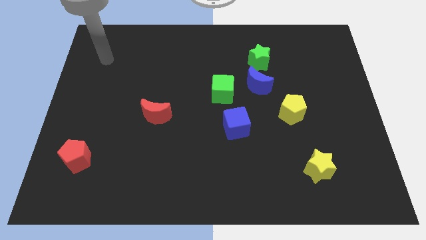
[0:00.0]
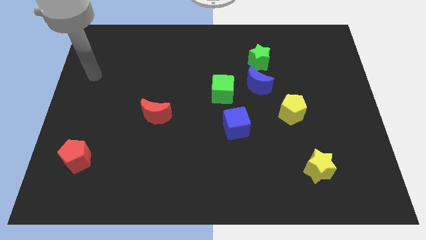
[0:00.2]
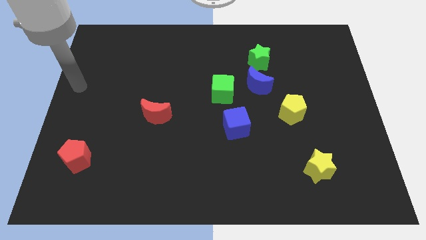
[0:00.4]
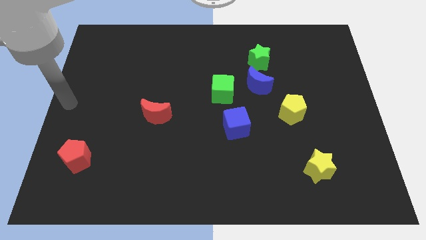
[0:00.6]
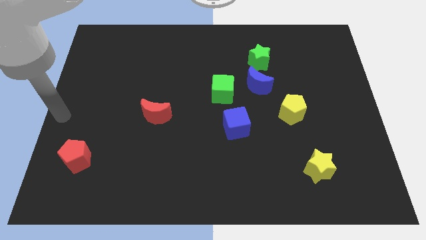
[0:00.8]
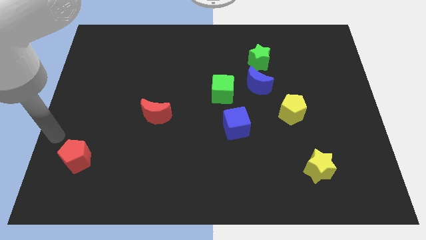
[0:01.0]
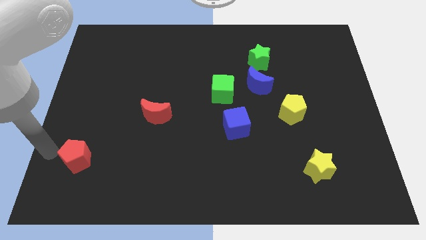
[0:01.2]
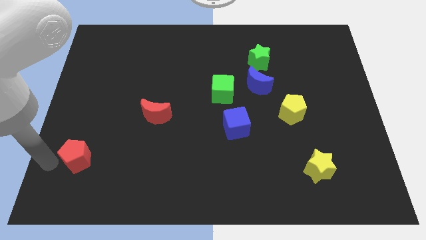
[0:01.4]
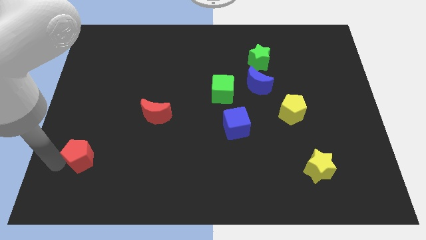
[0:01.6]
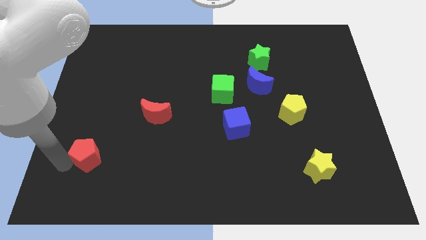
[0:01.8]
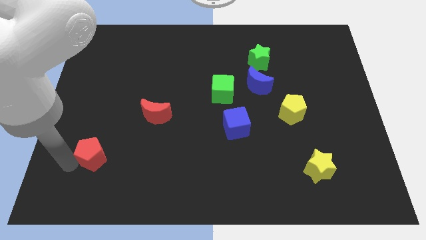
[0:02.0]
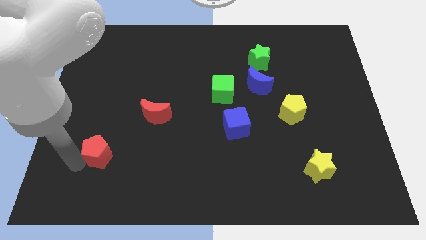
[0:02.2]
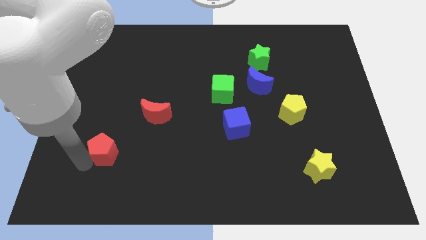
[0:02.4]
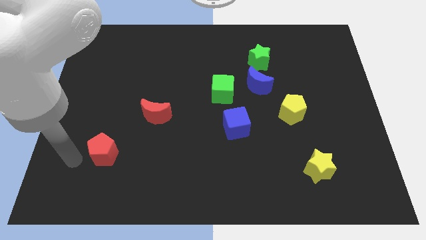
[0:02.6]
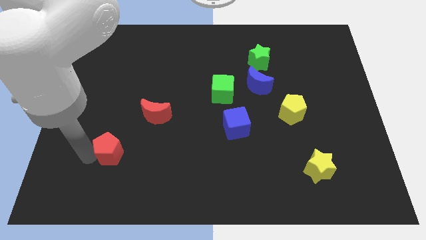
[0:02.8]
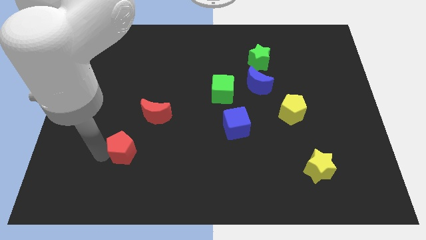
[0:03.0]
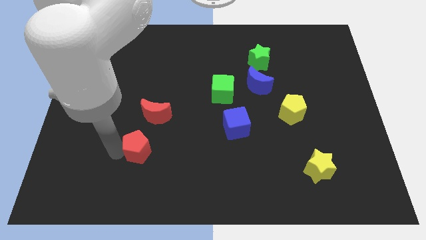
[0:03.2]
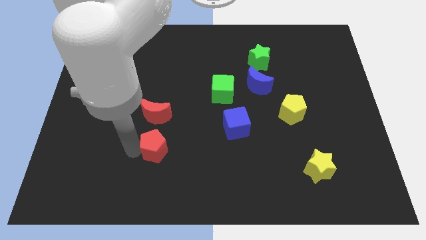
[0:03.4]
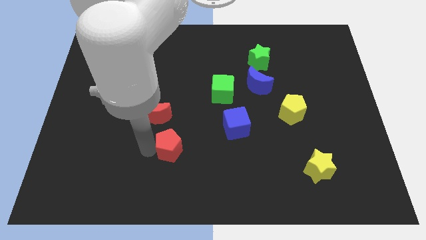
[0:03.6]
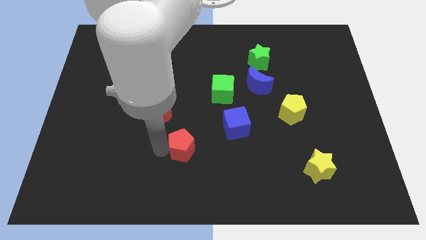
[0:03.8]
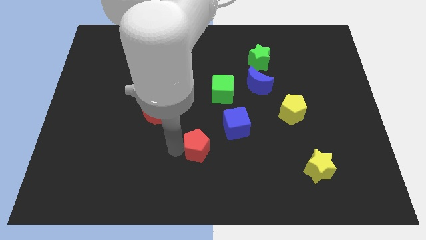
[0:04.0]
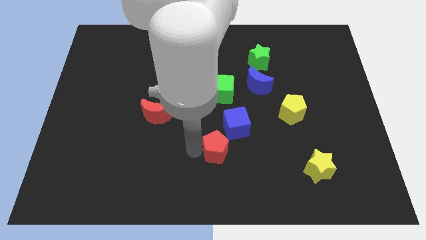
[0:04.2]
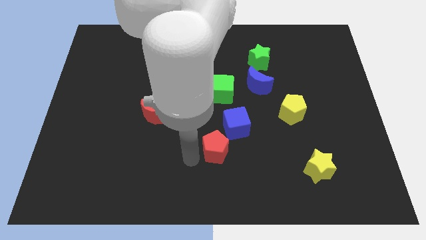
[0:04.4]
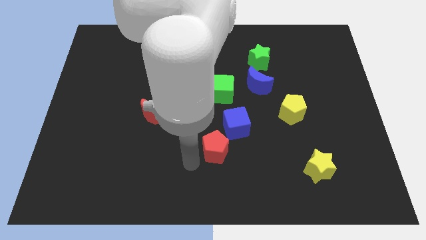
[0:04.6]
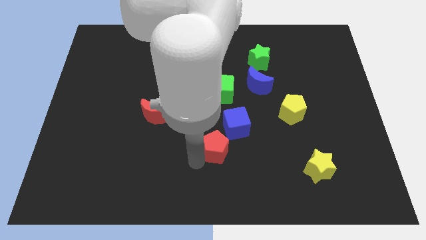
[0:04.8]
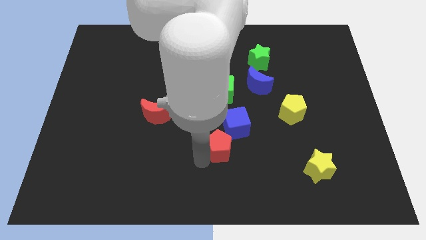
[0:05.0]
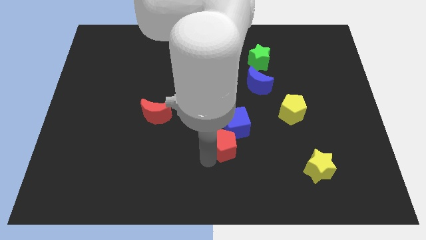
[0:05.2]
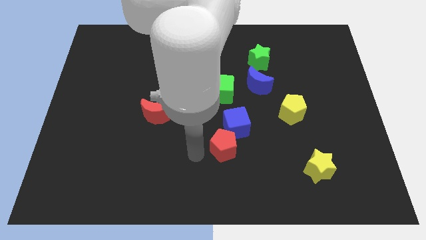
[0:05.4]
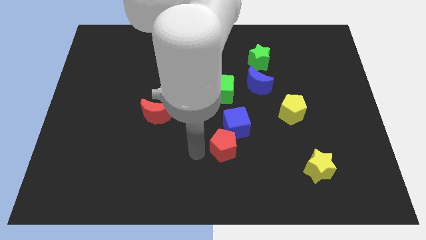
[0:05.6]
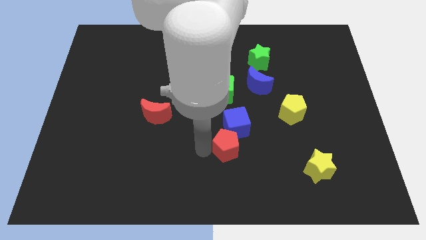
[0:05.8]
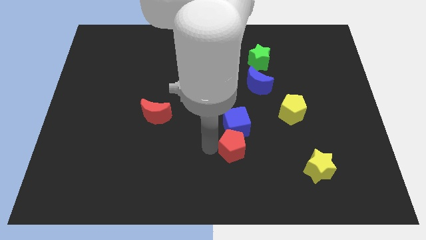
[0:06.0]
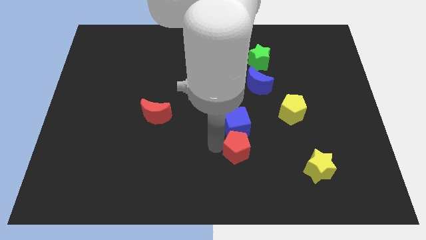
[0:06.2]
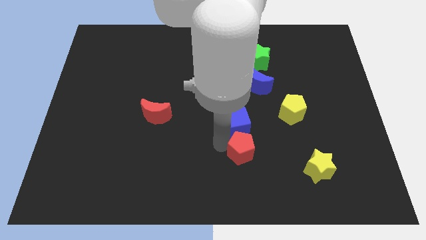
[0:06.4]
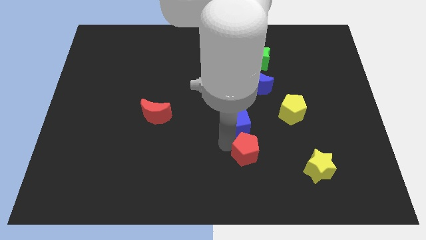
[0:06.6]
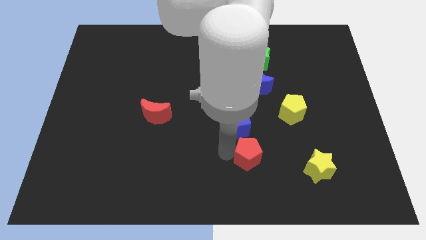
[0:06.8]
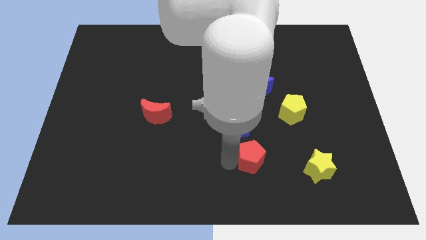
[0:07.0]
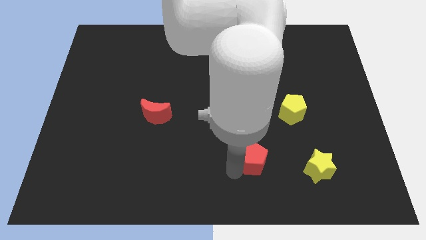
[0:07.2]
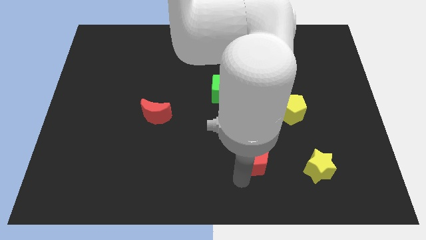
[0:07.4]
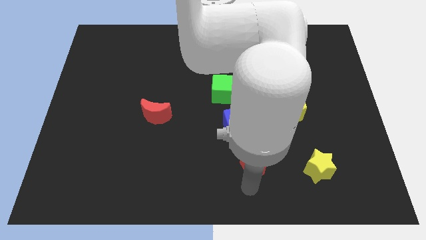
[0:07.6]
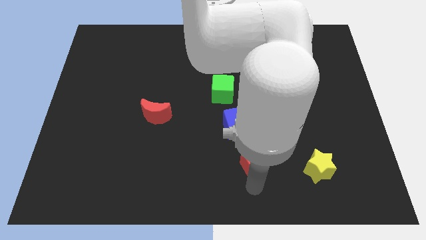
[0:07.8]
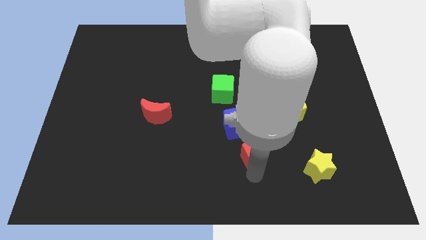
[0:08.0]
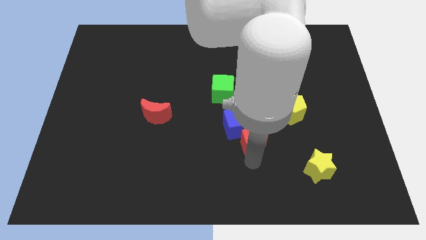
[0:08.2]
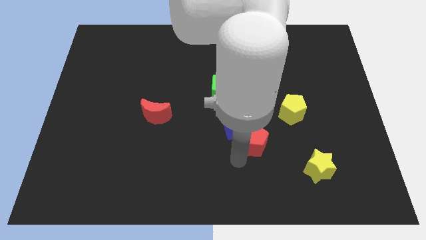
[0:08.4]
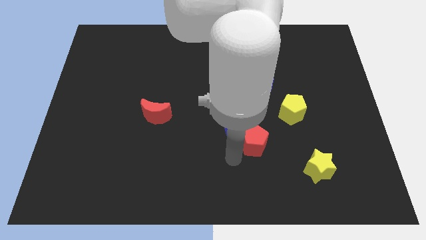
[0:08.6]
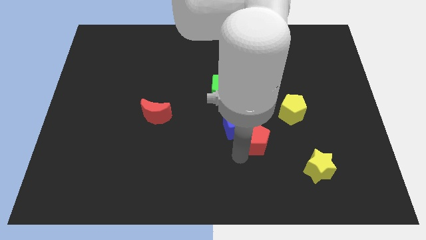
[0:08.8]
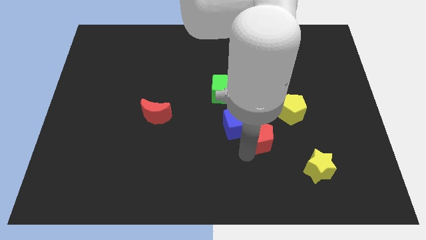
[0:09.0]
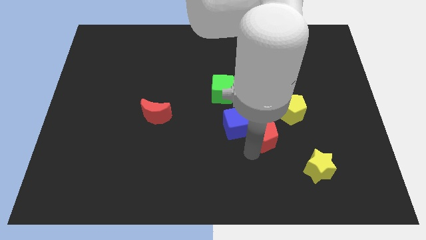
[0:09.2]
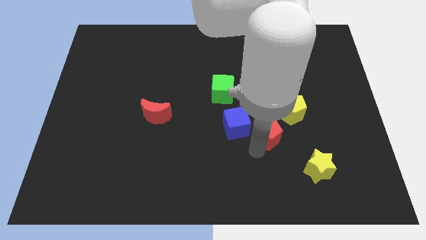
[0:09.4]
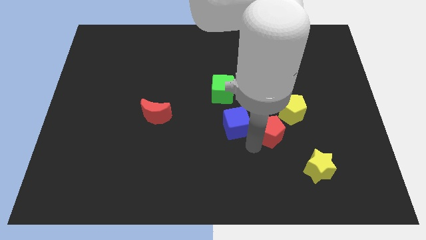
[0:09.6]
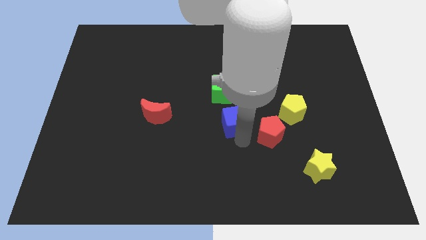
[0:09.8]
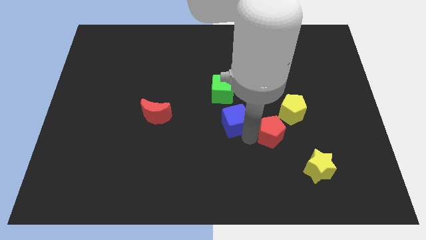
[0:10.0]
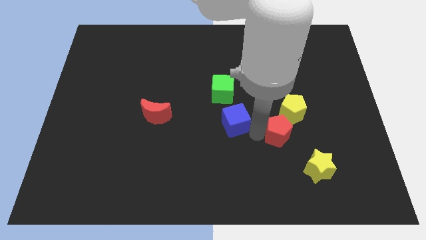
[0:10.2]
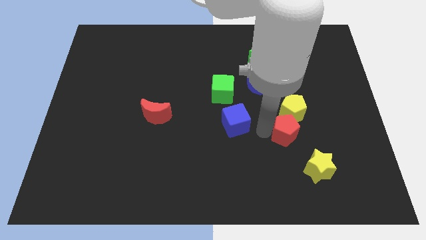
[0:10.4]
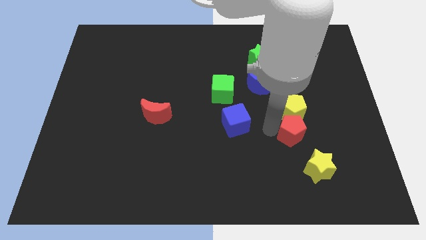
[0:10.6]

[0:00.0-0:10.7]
put the red pentagon above the yellow star

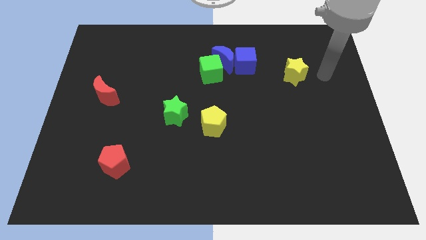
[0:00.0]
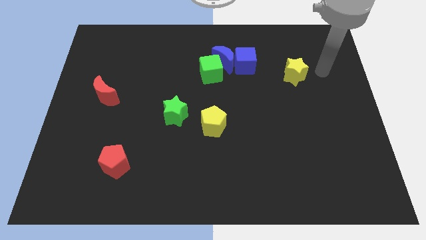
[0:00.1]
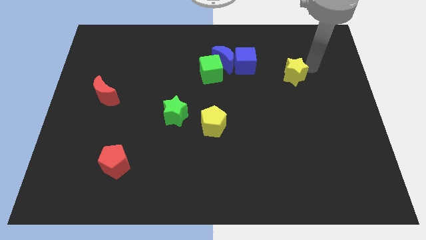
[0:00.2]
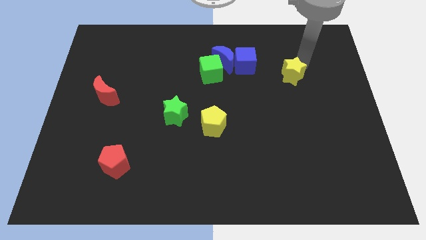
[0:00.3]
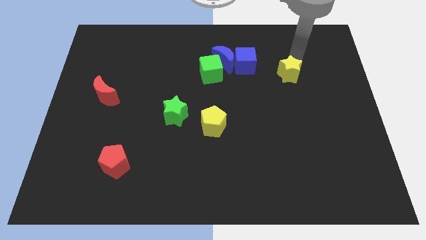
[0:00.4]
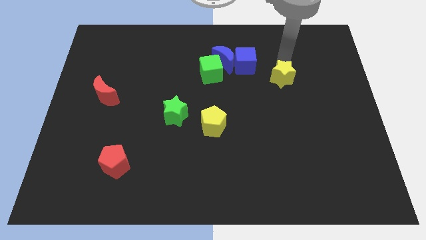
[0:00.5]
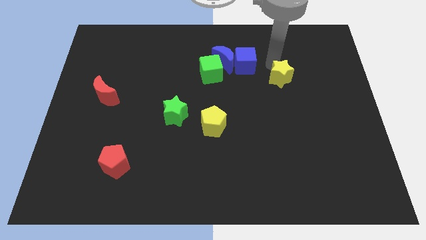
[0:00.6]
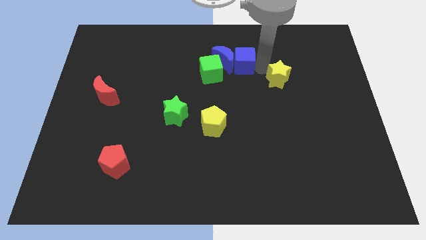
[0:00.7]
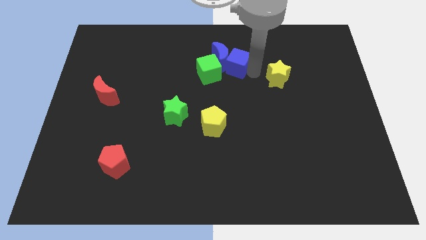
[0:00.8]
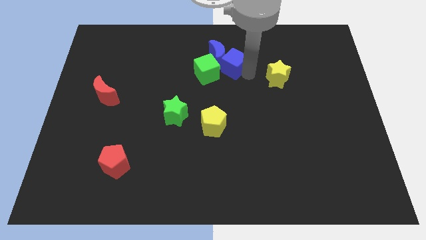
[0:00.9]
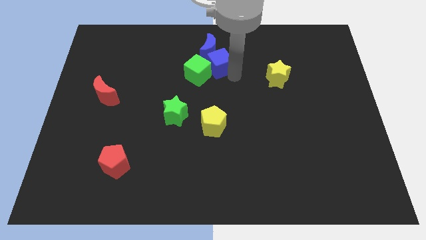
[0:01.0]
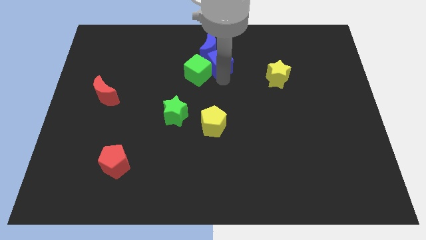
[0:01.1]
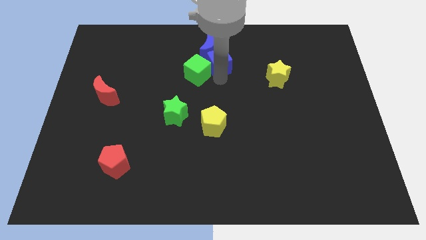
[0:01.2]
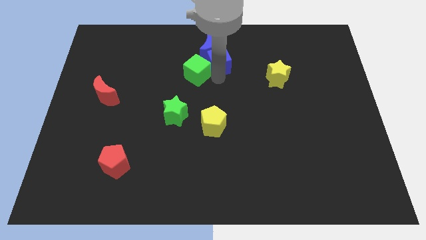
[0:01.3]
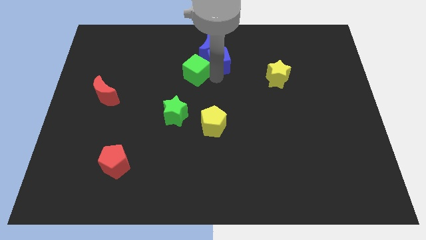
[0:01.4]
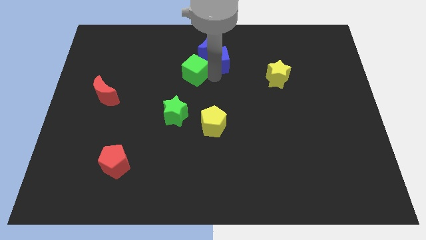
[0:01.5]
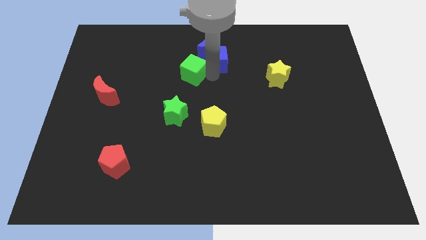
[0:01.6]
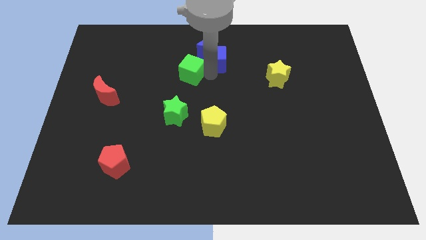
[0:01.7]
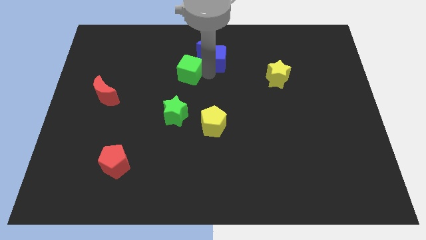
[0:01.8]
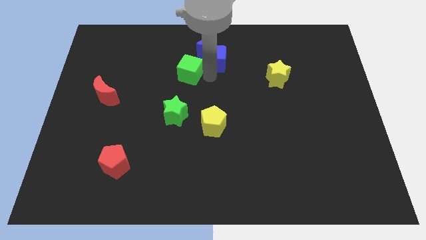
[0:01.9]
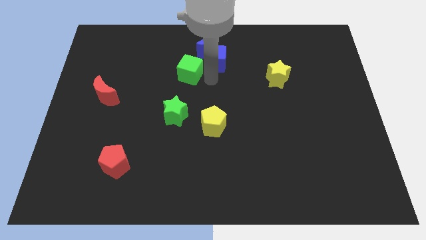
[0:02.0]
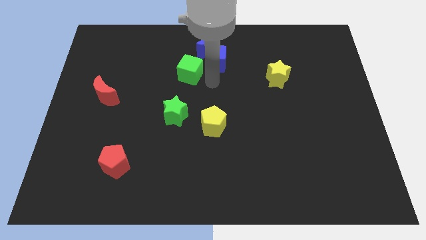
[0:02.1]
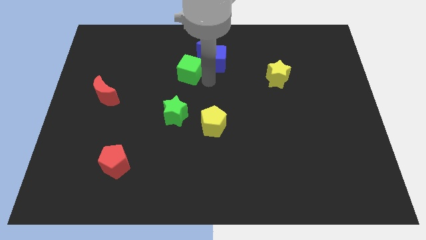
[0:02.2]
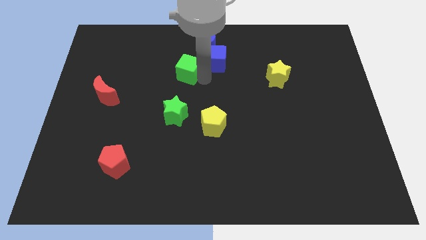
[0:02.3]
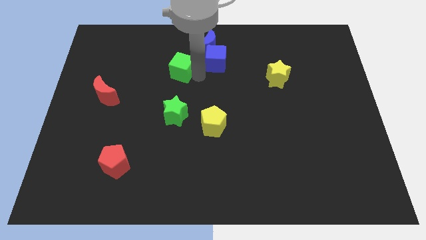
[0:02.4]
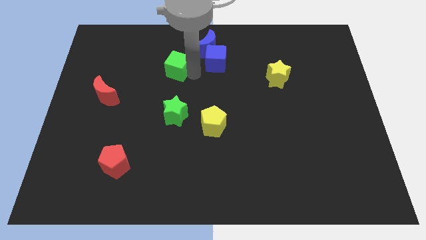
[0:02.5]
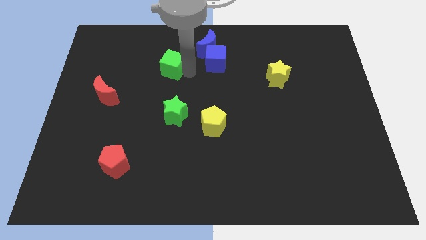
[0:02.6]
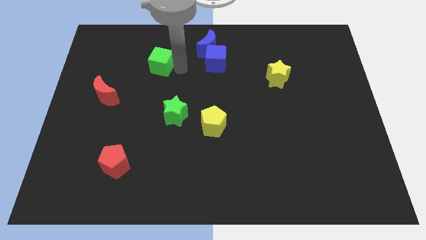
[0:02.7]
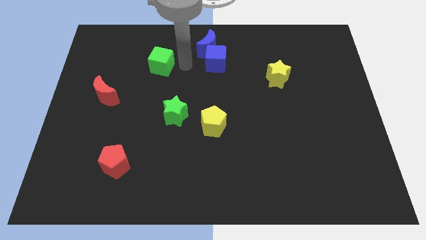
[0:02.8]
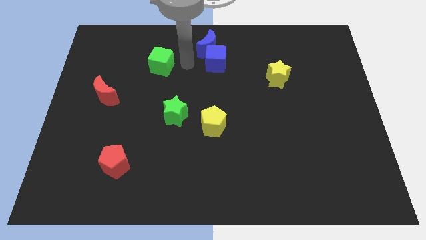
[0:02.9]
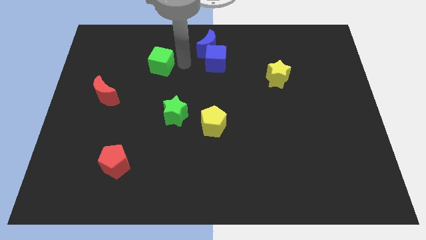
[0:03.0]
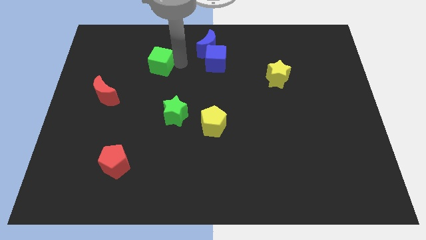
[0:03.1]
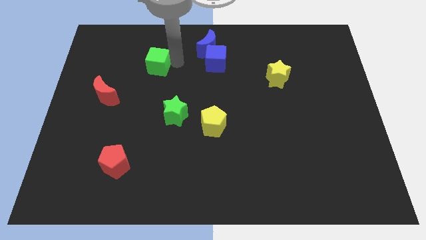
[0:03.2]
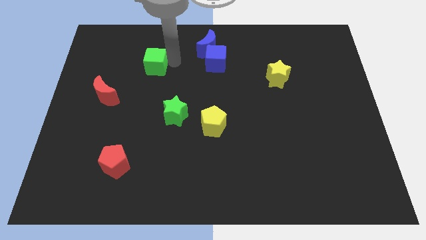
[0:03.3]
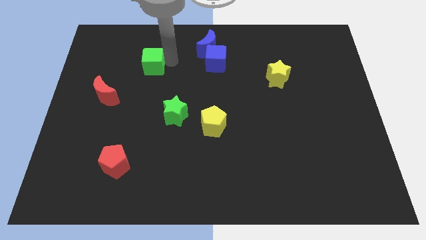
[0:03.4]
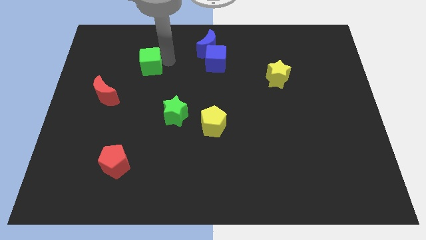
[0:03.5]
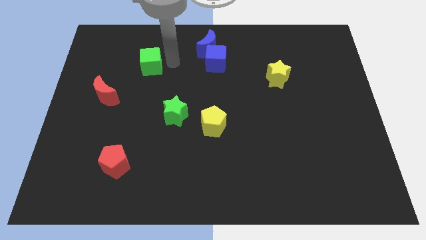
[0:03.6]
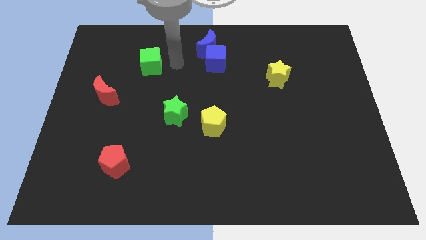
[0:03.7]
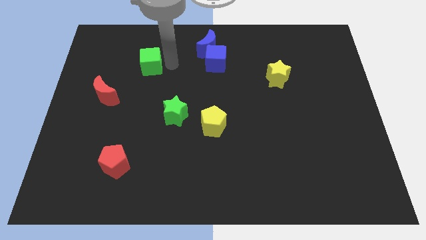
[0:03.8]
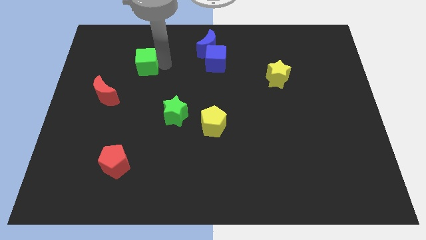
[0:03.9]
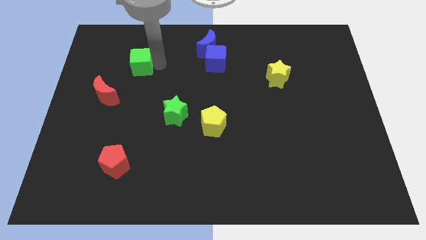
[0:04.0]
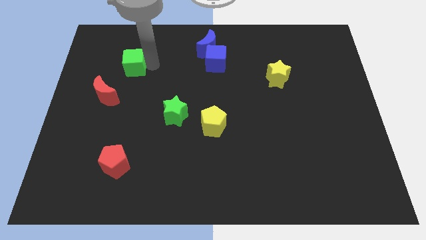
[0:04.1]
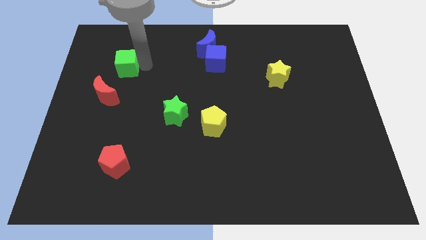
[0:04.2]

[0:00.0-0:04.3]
move the green cube to the top side of the red moon
